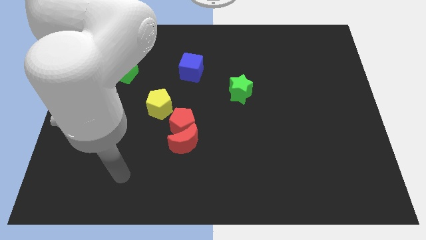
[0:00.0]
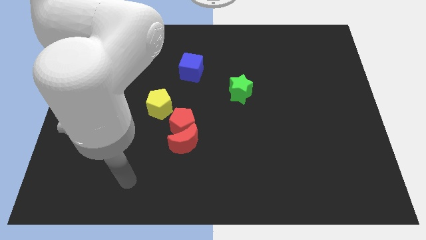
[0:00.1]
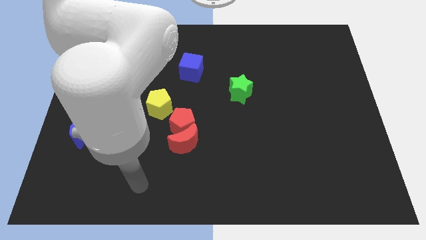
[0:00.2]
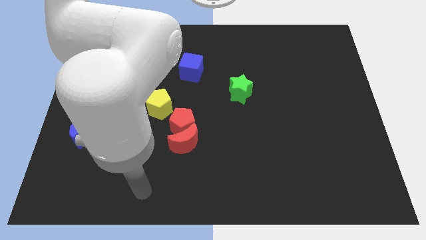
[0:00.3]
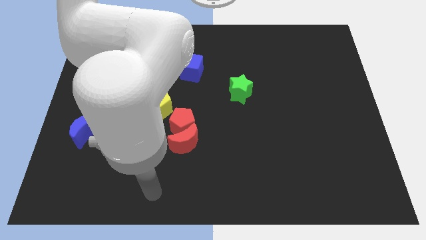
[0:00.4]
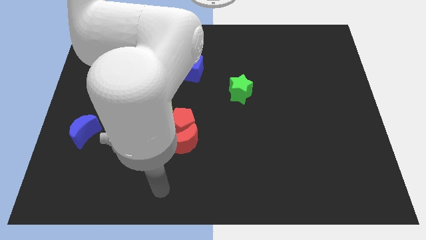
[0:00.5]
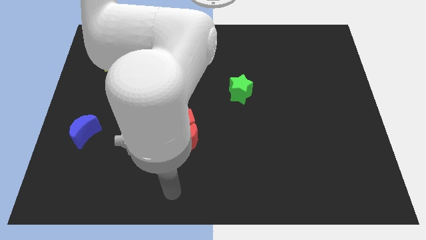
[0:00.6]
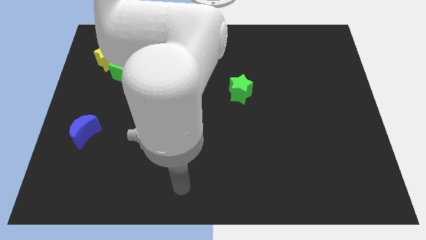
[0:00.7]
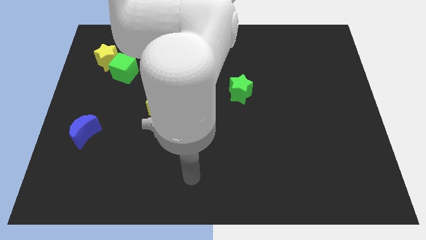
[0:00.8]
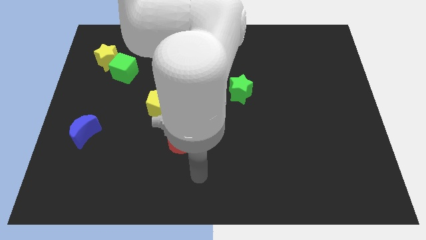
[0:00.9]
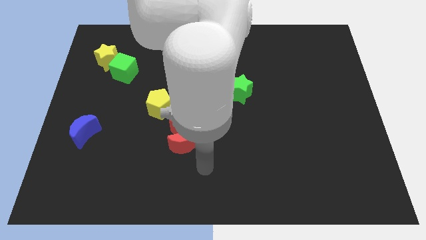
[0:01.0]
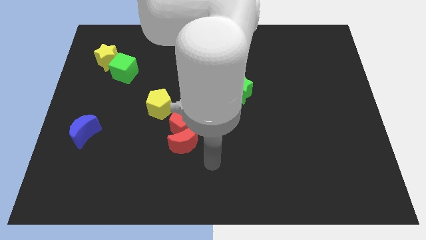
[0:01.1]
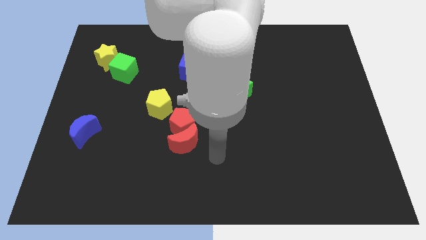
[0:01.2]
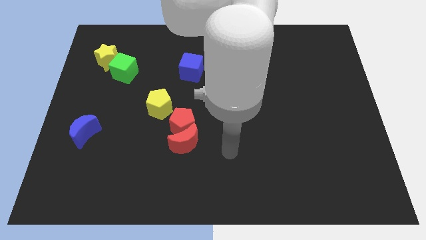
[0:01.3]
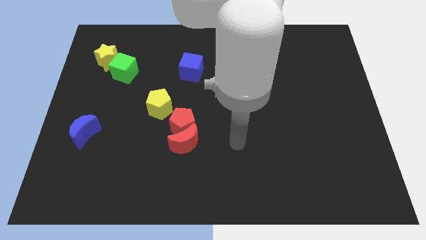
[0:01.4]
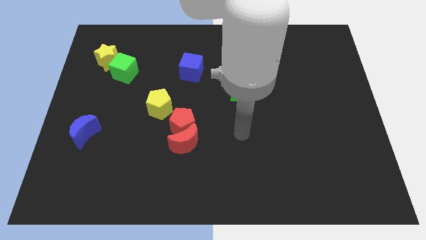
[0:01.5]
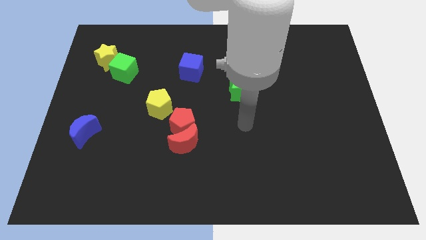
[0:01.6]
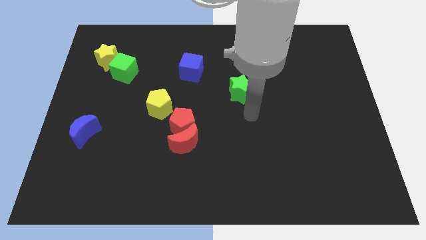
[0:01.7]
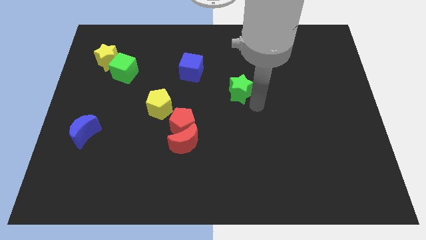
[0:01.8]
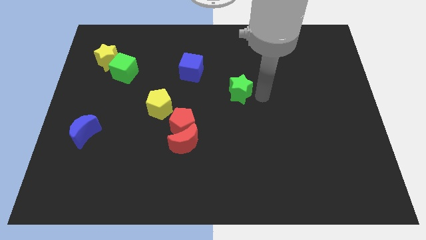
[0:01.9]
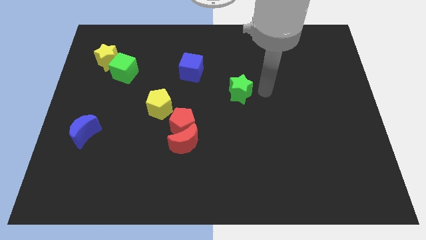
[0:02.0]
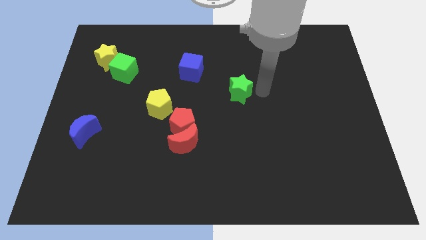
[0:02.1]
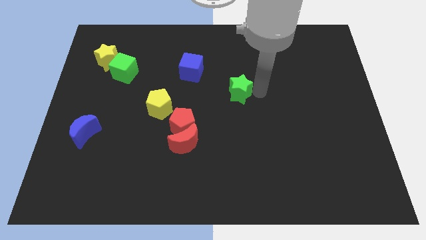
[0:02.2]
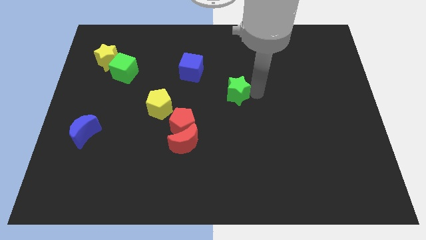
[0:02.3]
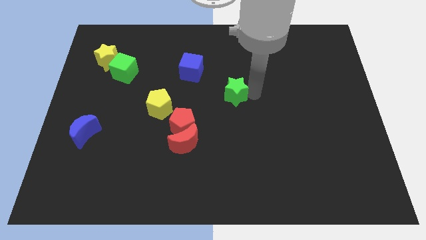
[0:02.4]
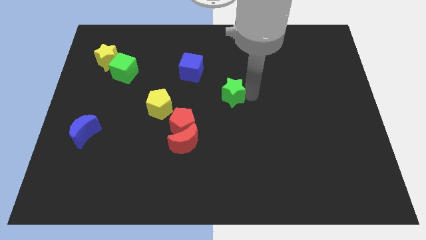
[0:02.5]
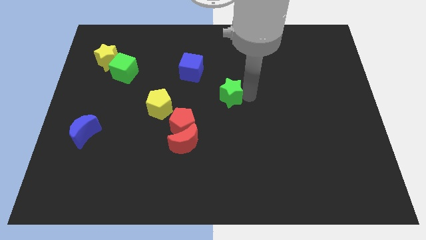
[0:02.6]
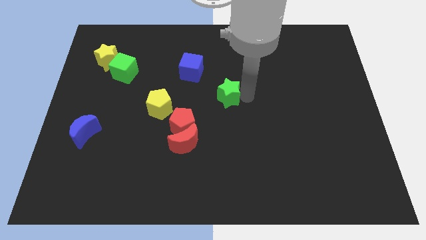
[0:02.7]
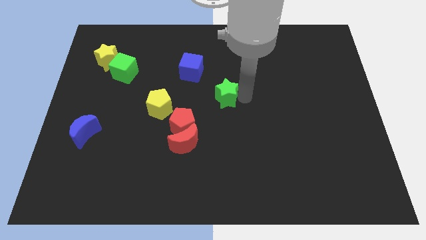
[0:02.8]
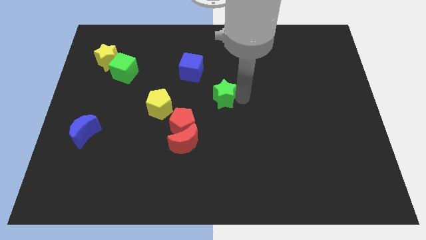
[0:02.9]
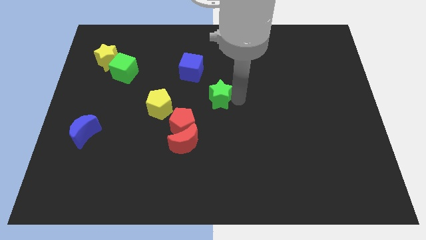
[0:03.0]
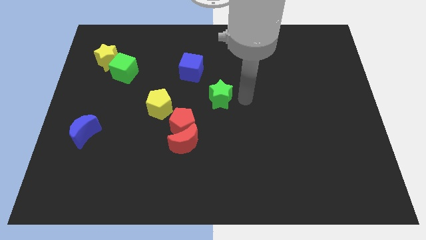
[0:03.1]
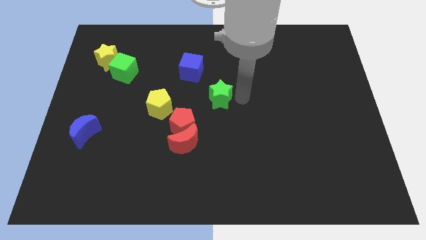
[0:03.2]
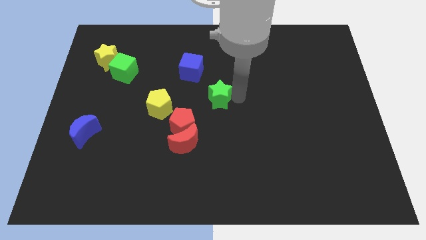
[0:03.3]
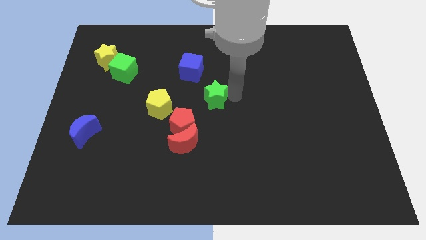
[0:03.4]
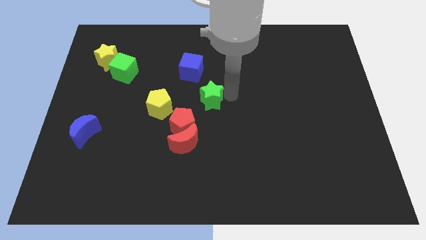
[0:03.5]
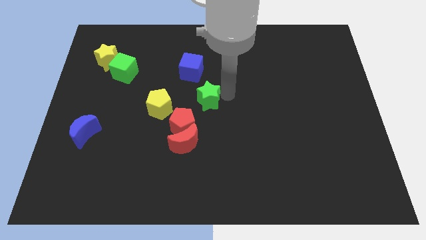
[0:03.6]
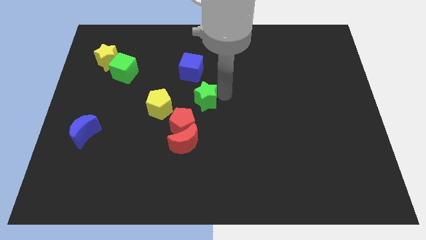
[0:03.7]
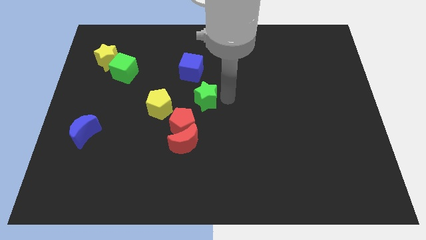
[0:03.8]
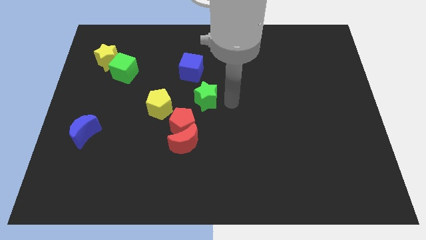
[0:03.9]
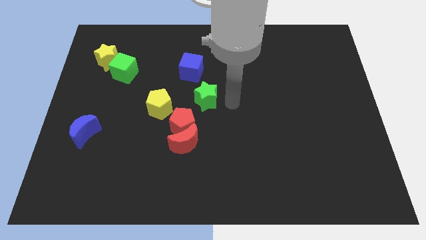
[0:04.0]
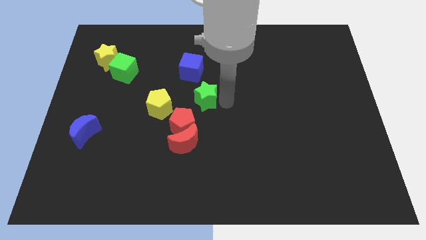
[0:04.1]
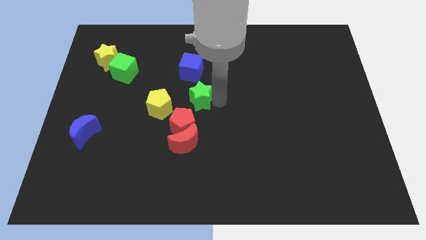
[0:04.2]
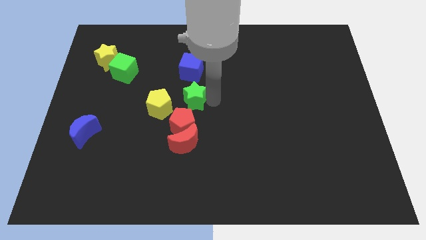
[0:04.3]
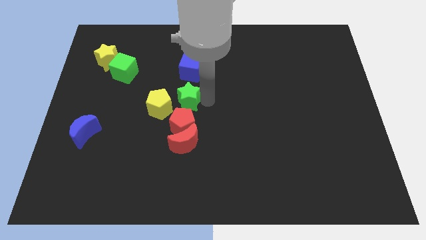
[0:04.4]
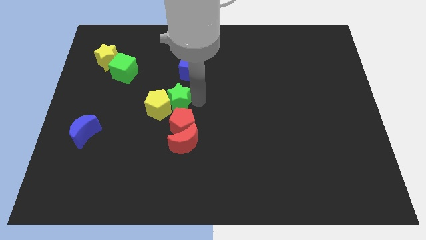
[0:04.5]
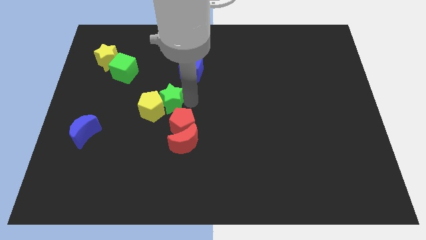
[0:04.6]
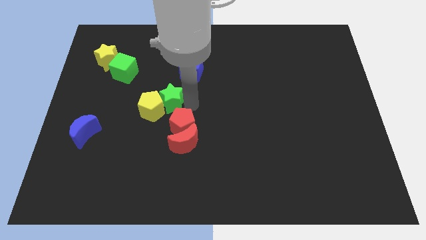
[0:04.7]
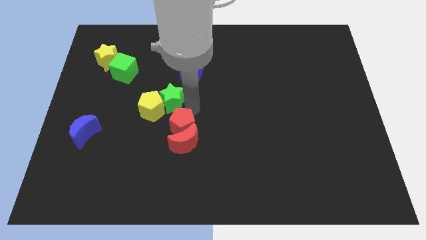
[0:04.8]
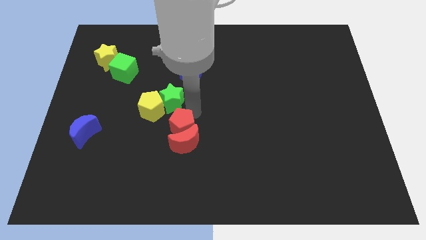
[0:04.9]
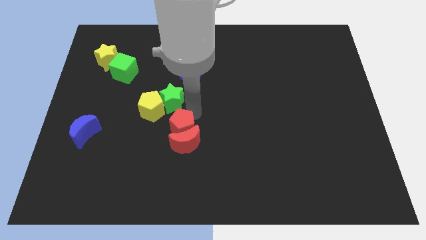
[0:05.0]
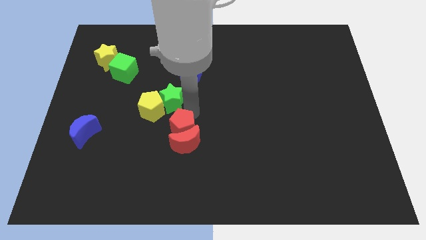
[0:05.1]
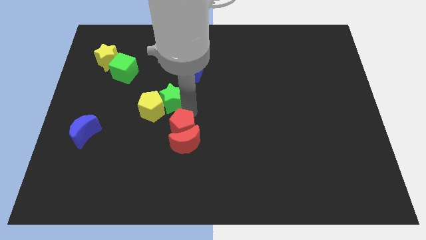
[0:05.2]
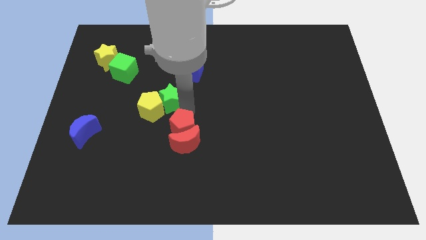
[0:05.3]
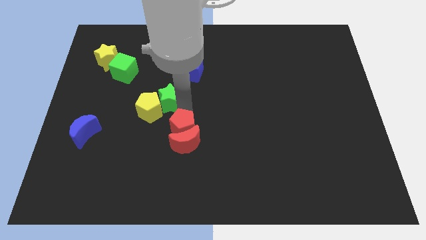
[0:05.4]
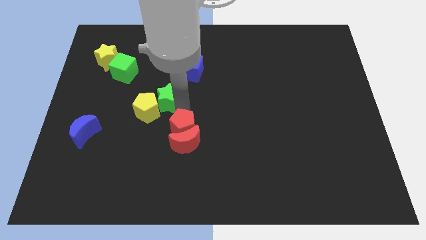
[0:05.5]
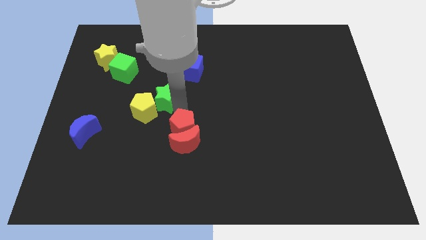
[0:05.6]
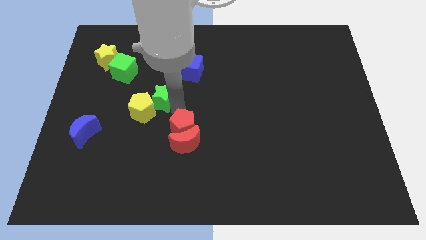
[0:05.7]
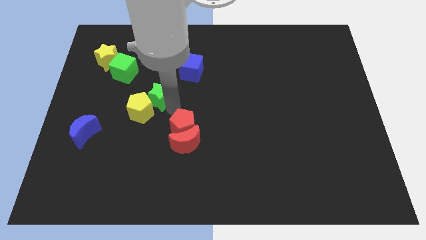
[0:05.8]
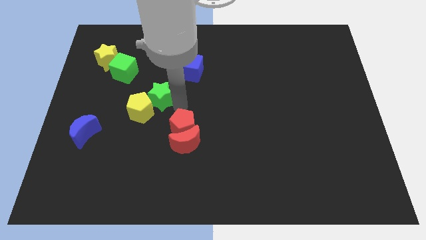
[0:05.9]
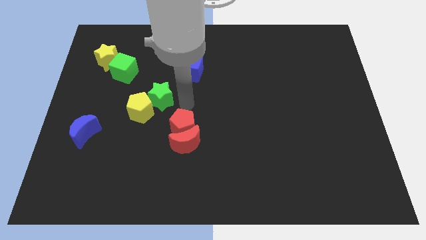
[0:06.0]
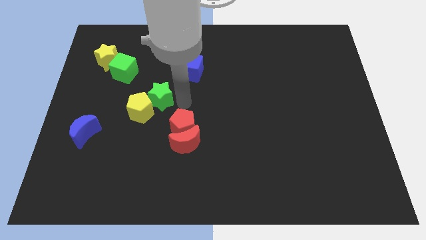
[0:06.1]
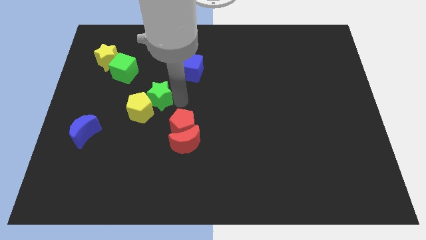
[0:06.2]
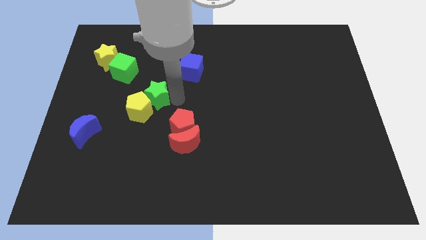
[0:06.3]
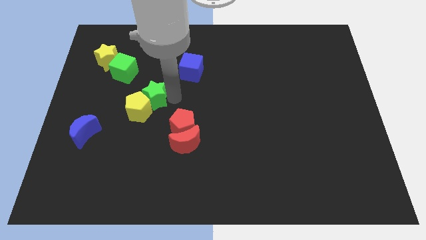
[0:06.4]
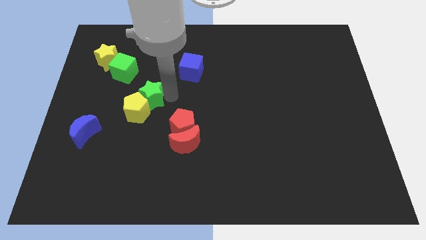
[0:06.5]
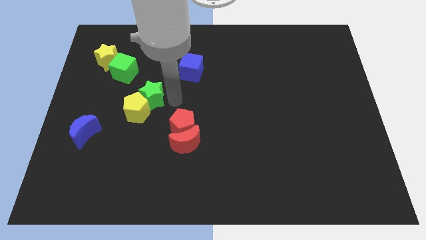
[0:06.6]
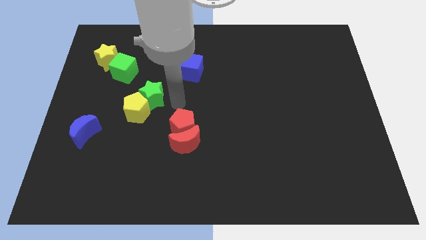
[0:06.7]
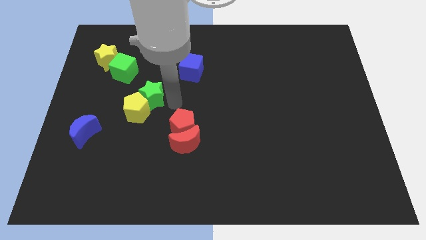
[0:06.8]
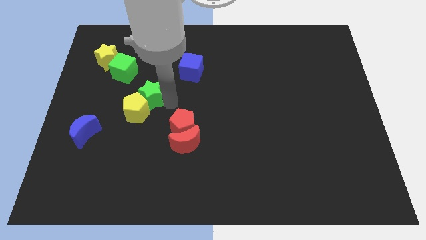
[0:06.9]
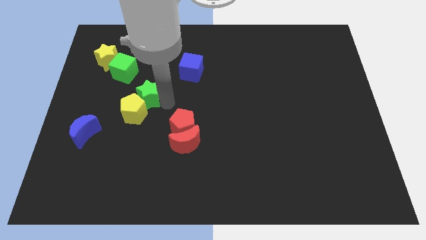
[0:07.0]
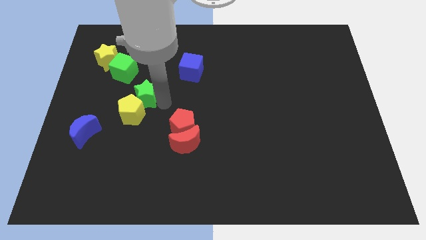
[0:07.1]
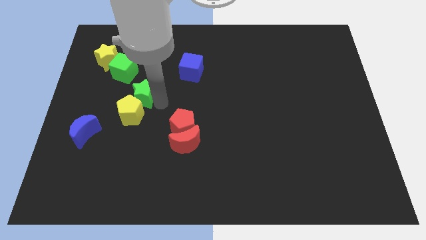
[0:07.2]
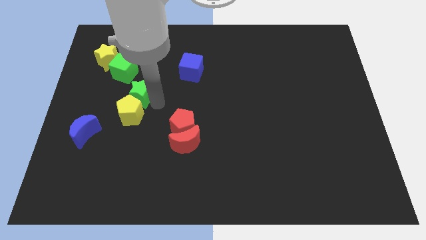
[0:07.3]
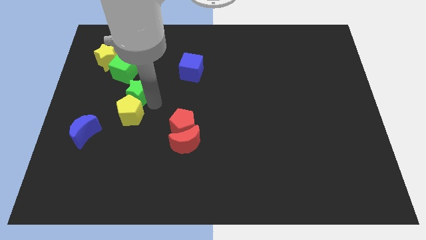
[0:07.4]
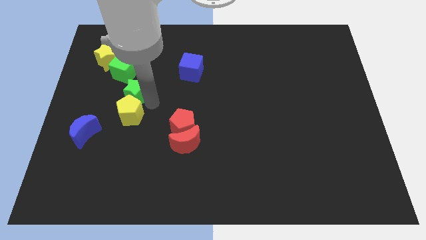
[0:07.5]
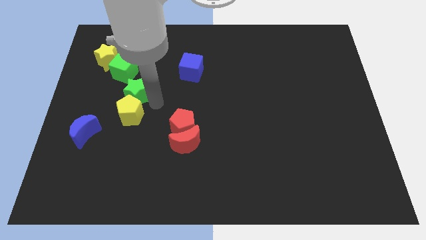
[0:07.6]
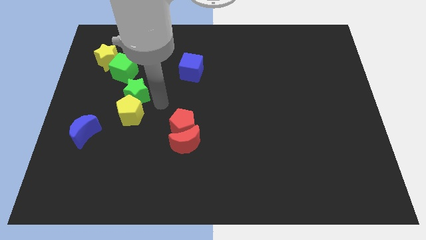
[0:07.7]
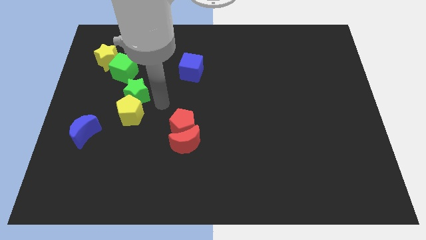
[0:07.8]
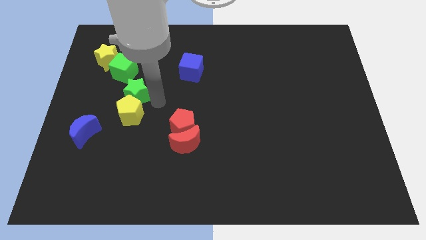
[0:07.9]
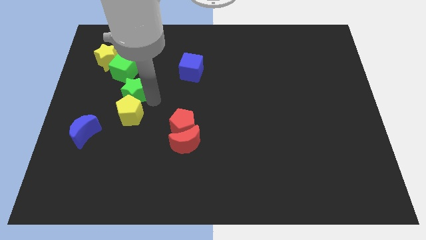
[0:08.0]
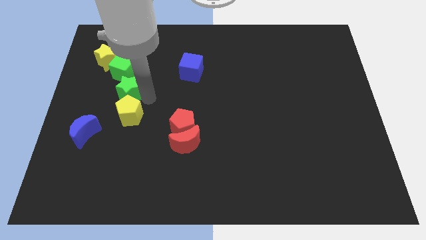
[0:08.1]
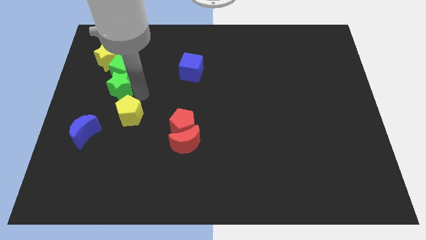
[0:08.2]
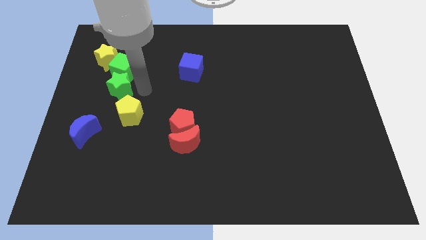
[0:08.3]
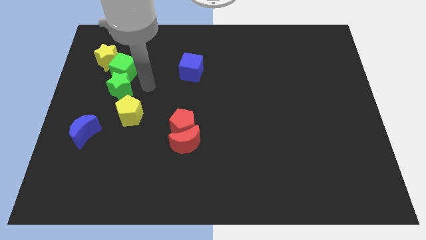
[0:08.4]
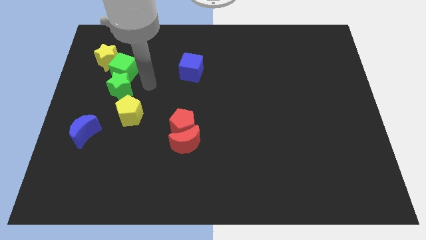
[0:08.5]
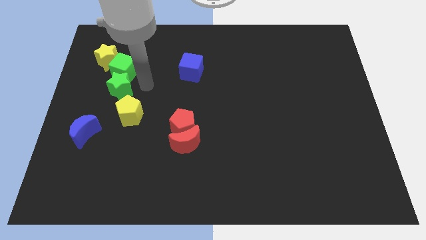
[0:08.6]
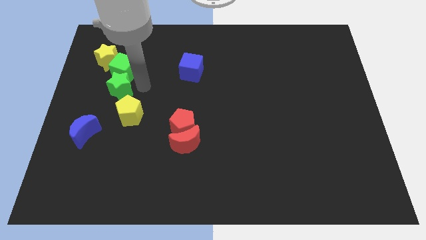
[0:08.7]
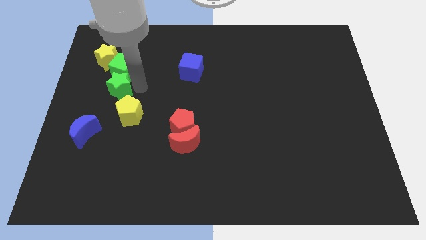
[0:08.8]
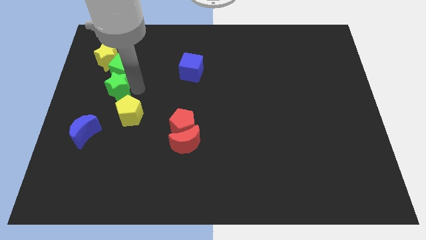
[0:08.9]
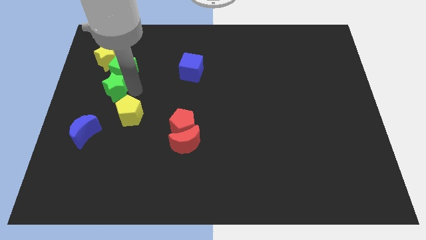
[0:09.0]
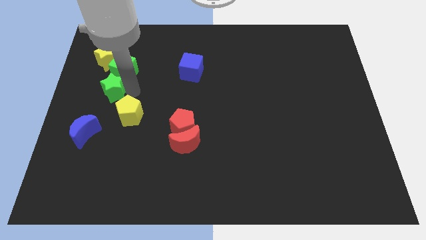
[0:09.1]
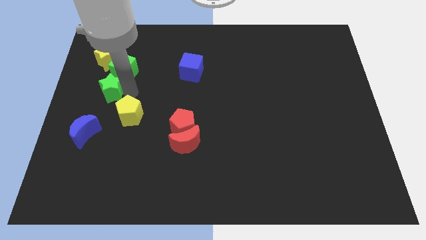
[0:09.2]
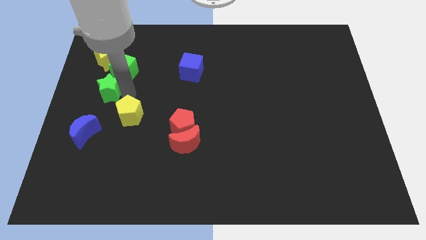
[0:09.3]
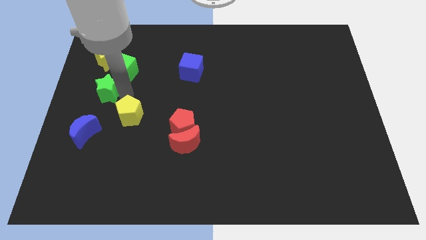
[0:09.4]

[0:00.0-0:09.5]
put the green star to the center left
